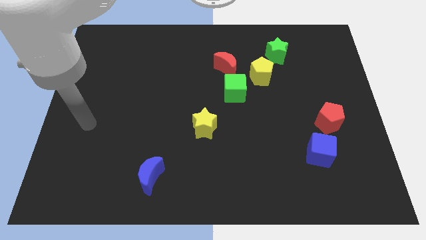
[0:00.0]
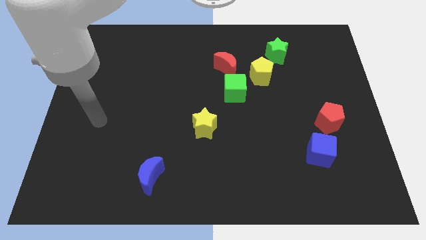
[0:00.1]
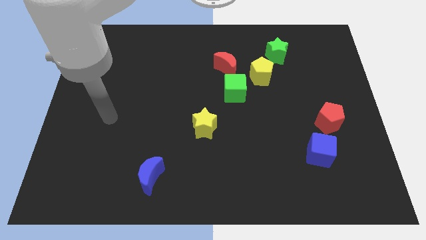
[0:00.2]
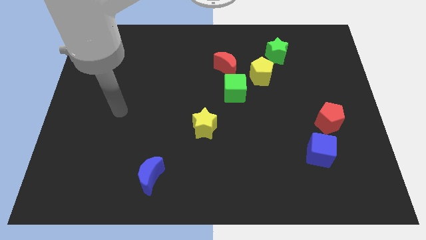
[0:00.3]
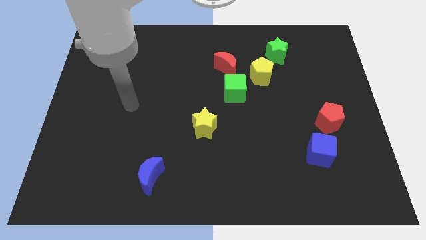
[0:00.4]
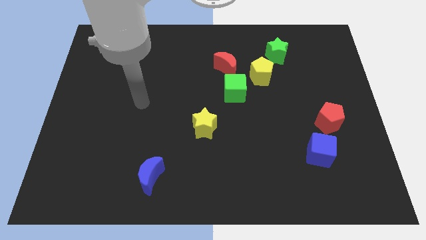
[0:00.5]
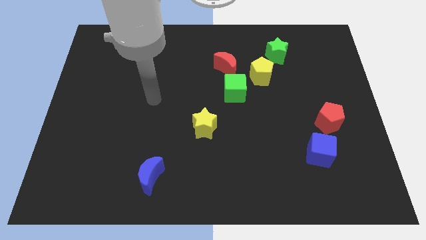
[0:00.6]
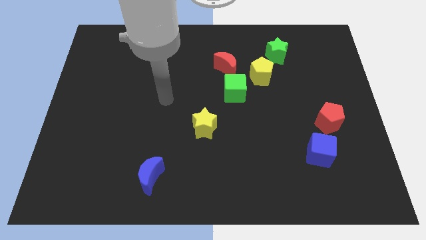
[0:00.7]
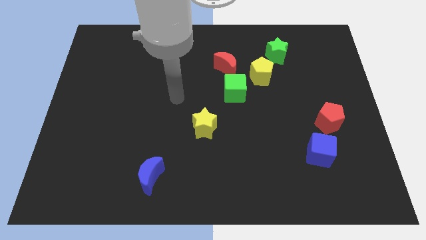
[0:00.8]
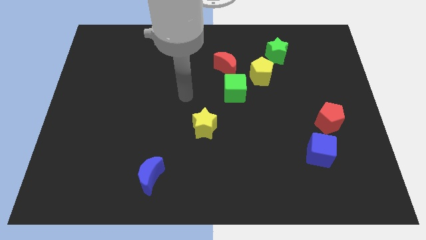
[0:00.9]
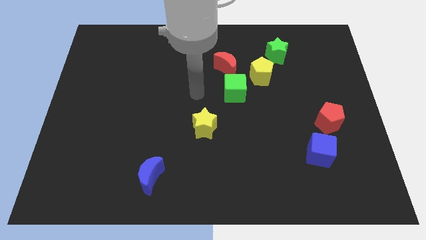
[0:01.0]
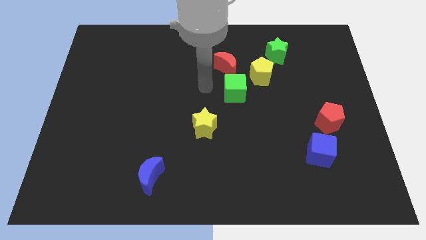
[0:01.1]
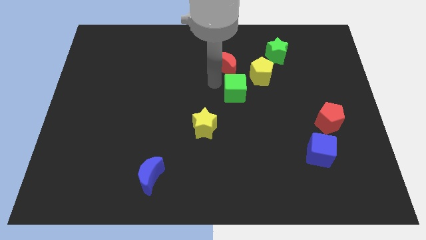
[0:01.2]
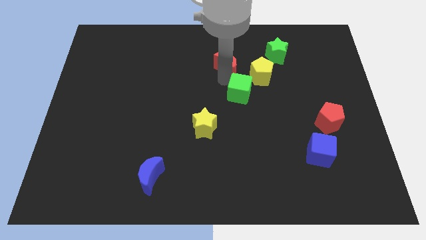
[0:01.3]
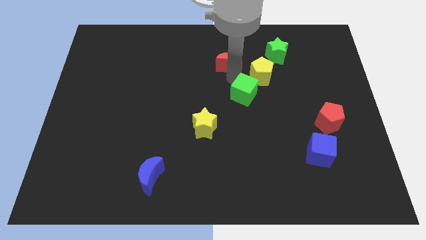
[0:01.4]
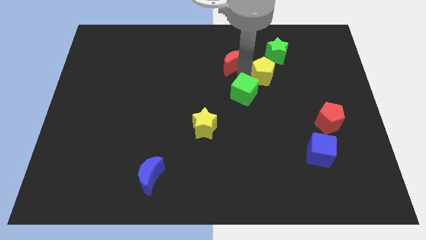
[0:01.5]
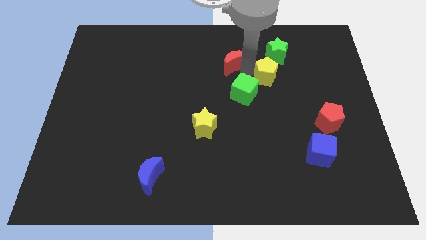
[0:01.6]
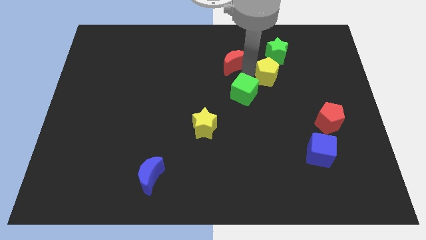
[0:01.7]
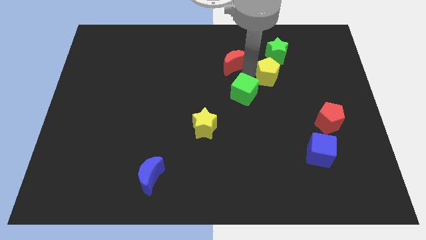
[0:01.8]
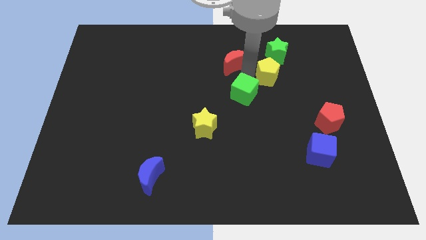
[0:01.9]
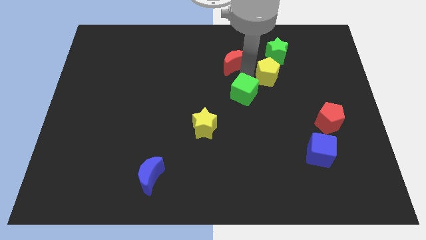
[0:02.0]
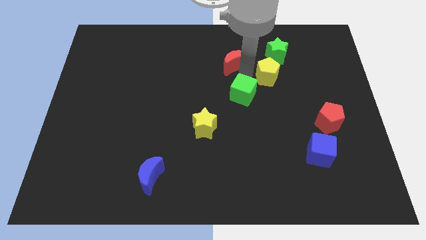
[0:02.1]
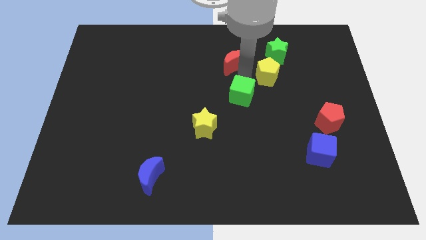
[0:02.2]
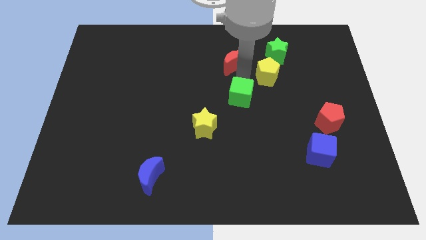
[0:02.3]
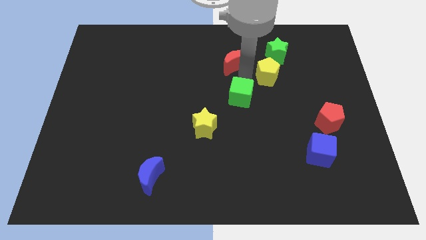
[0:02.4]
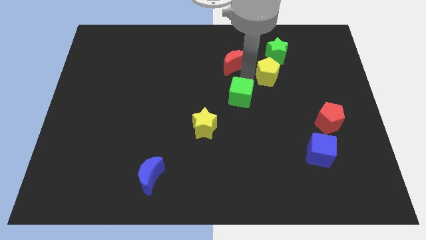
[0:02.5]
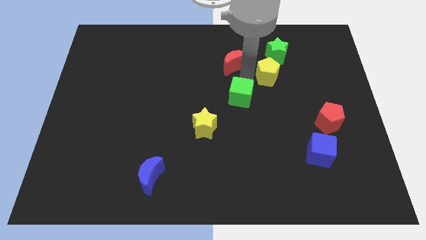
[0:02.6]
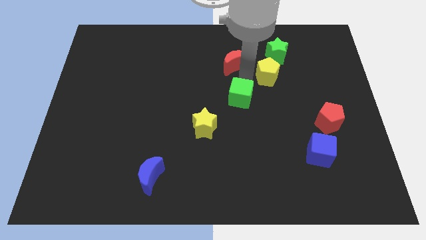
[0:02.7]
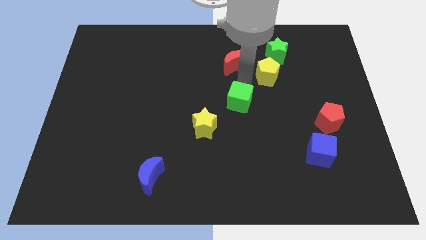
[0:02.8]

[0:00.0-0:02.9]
separate the green cube from the red moon and yellow pentagon

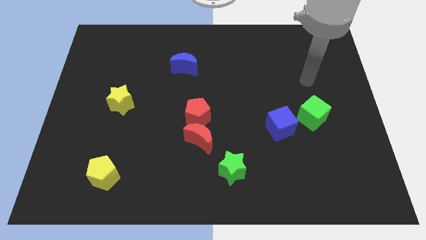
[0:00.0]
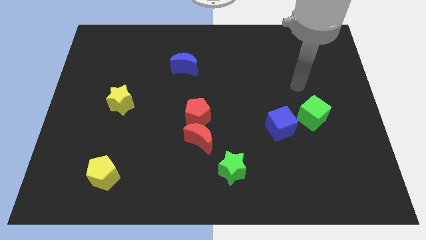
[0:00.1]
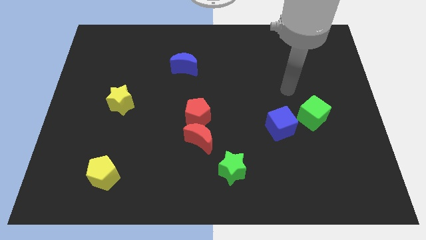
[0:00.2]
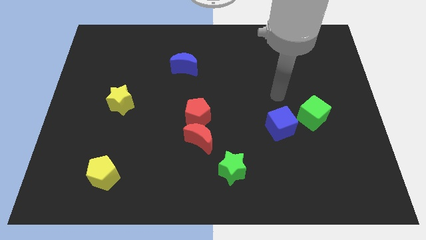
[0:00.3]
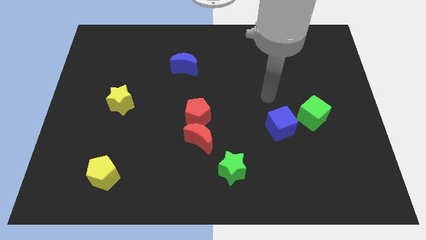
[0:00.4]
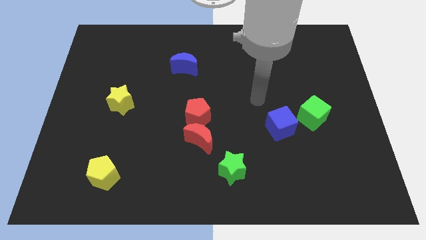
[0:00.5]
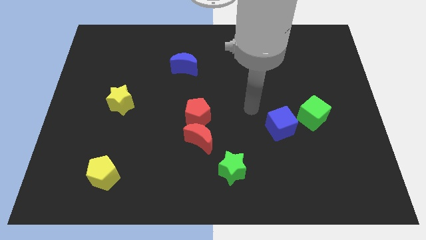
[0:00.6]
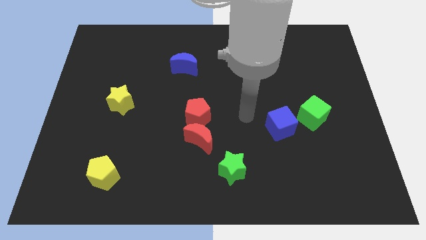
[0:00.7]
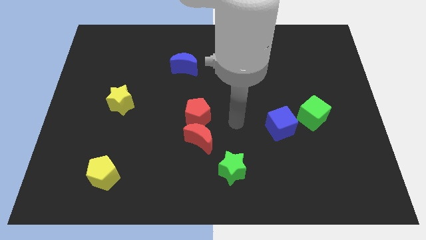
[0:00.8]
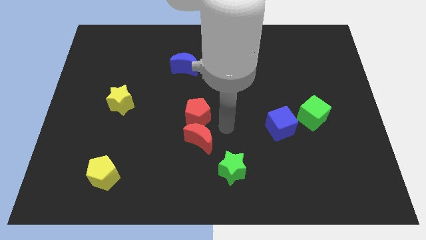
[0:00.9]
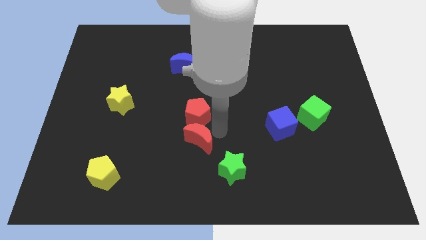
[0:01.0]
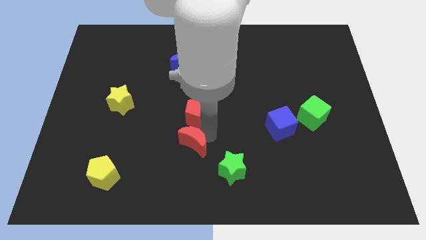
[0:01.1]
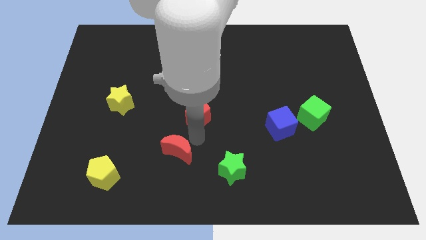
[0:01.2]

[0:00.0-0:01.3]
separate the red pentagon from the red moon

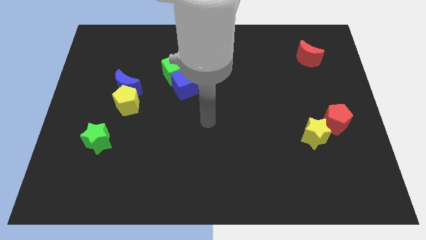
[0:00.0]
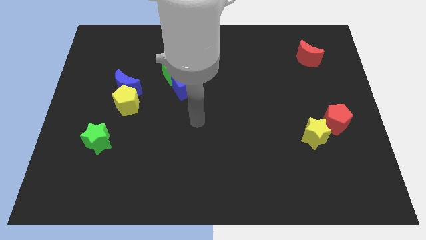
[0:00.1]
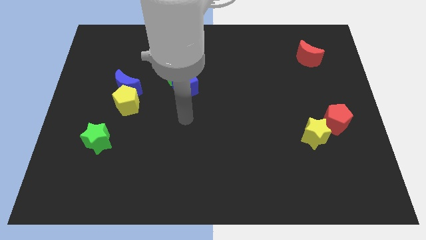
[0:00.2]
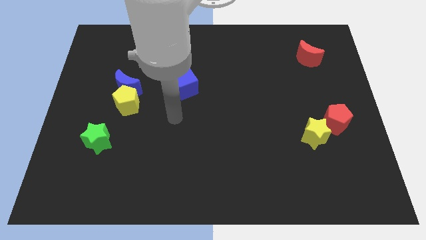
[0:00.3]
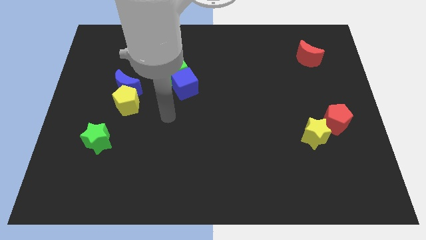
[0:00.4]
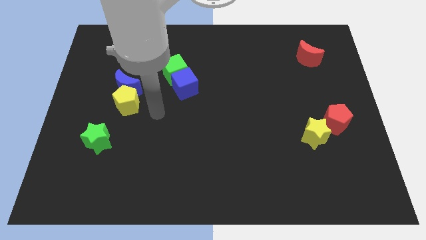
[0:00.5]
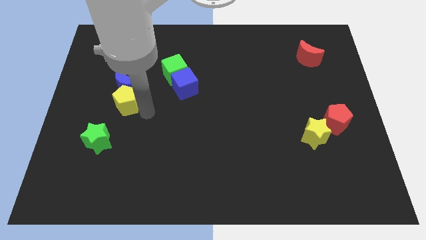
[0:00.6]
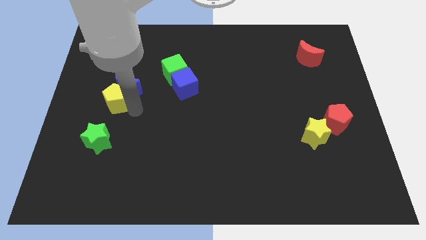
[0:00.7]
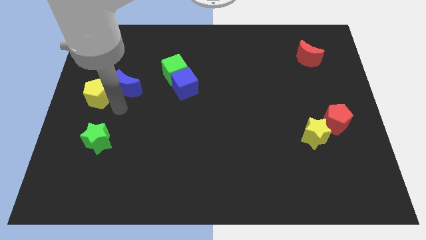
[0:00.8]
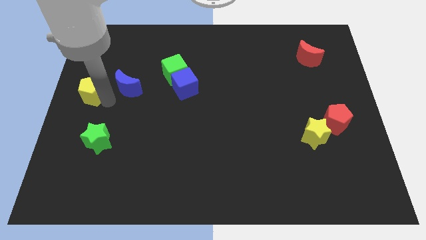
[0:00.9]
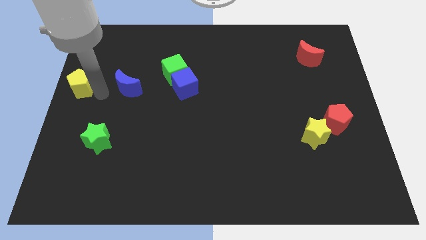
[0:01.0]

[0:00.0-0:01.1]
move the blue moon away from the yellow pentagon

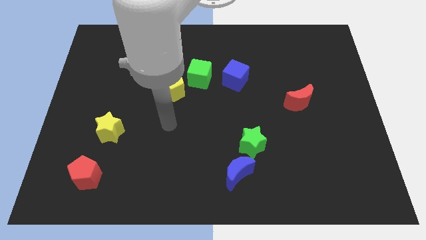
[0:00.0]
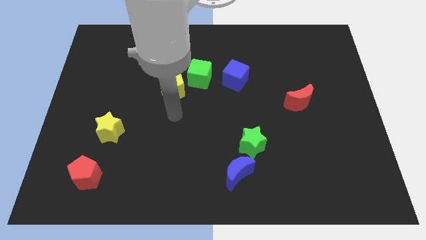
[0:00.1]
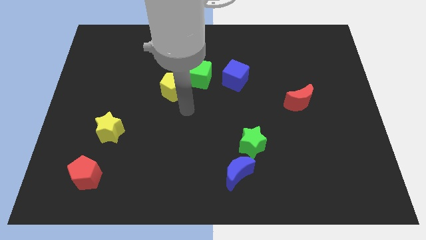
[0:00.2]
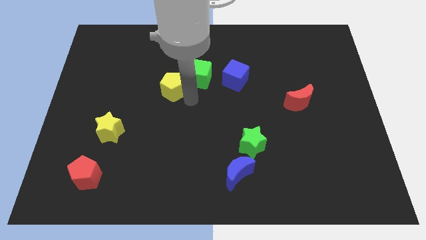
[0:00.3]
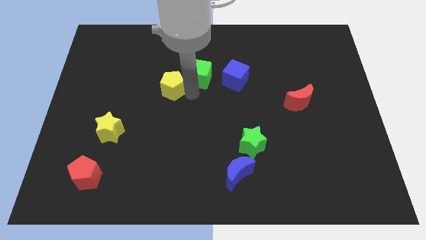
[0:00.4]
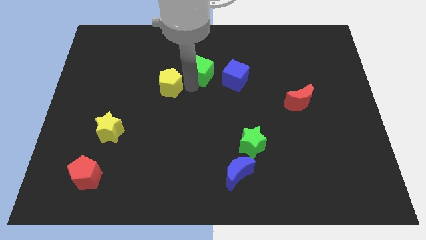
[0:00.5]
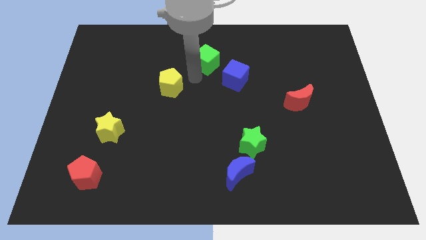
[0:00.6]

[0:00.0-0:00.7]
separate the yellow pentagon from the green cube

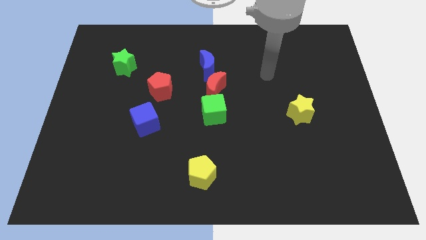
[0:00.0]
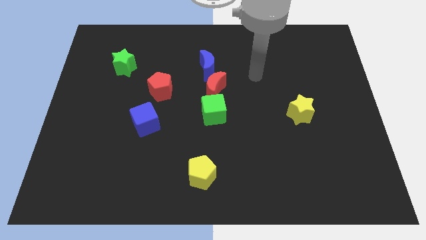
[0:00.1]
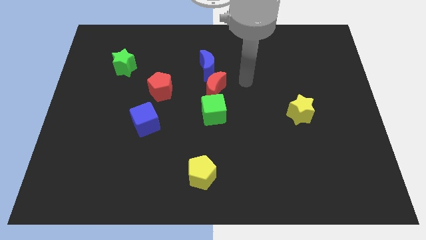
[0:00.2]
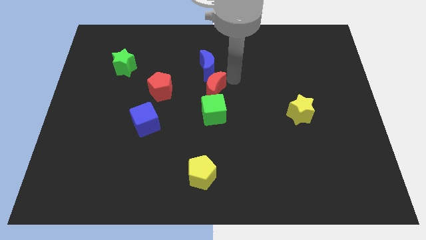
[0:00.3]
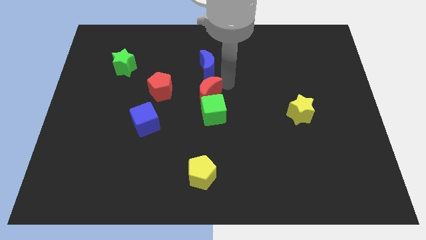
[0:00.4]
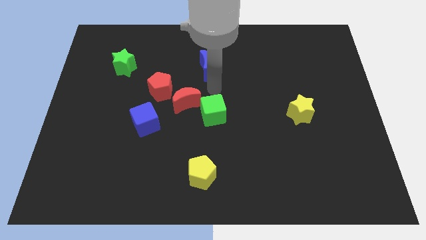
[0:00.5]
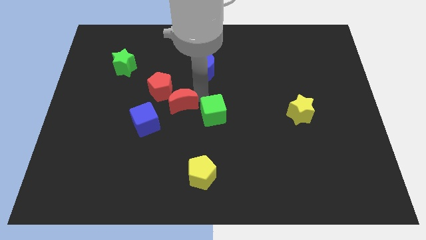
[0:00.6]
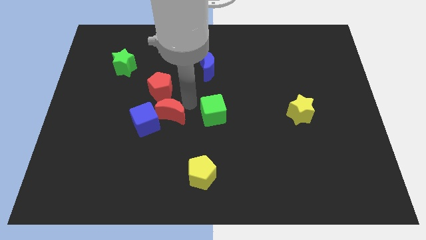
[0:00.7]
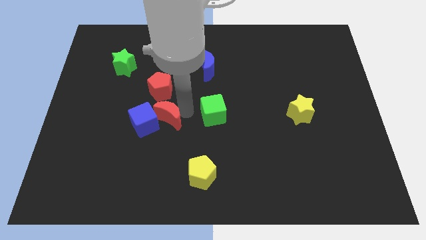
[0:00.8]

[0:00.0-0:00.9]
move the green cube away from the red moon

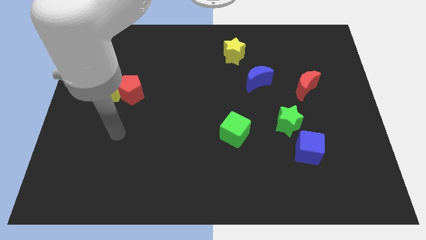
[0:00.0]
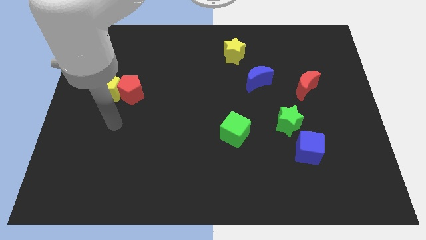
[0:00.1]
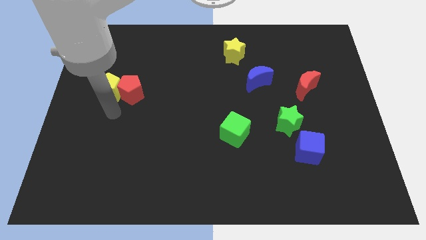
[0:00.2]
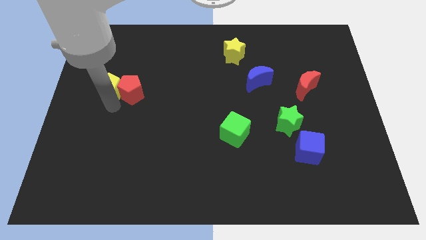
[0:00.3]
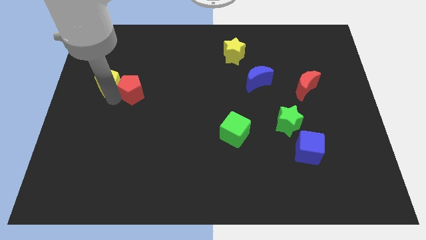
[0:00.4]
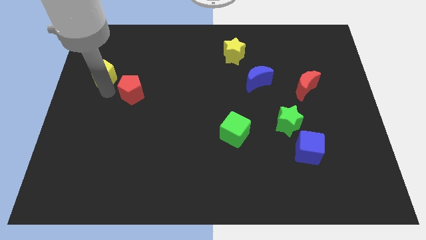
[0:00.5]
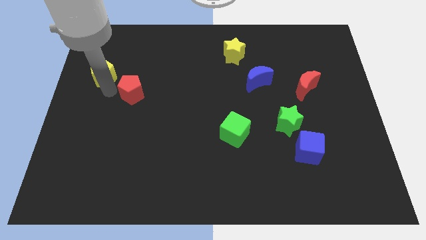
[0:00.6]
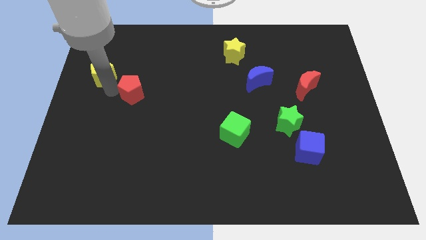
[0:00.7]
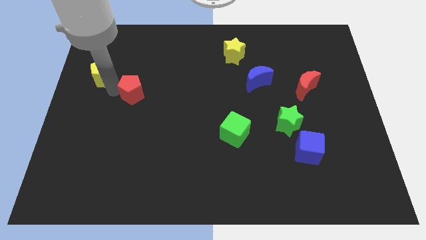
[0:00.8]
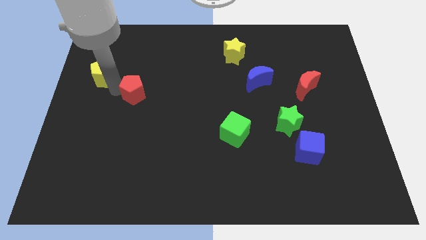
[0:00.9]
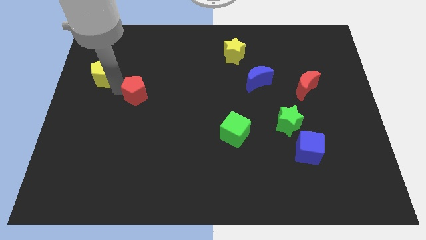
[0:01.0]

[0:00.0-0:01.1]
pull the red pentagon apart from the yellow pentagon

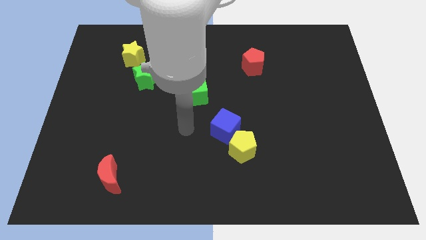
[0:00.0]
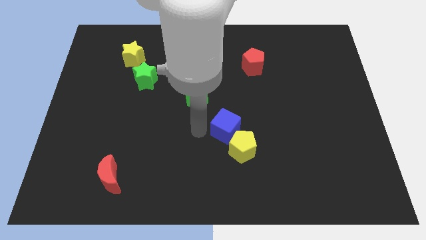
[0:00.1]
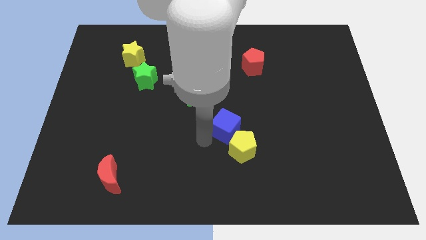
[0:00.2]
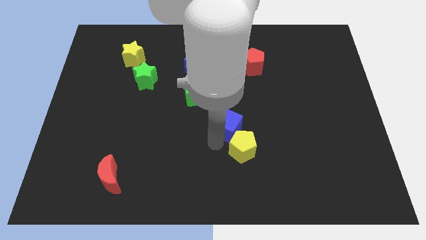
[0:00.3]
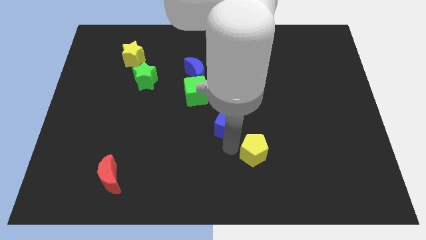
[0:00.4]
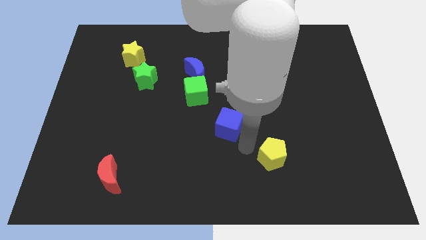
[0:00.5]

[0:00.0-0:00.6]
move the blue cube away from the yellow pentagon

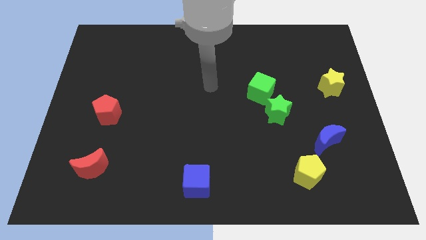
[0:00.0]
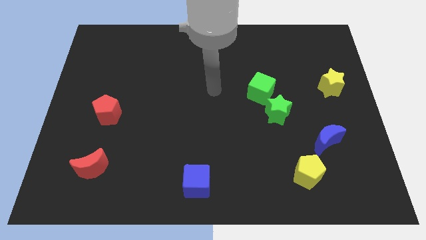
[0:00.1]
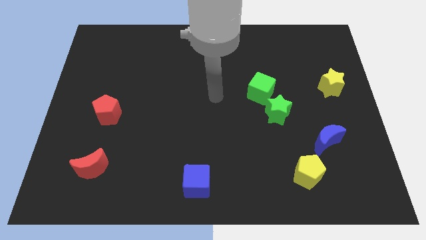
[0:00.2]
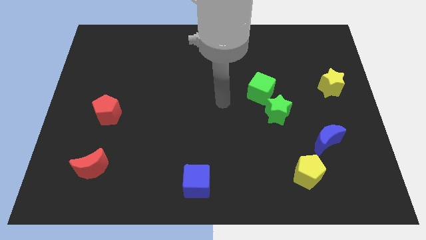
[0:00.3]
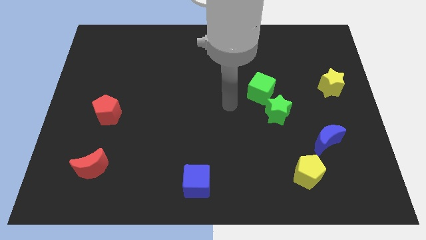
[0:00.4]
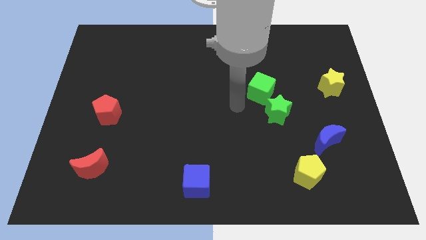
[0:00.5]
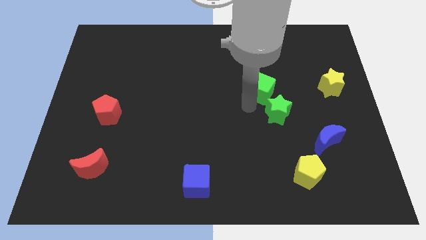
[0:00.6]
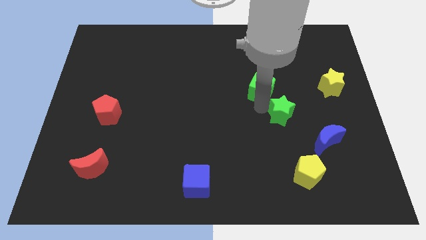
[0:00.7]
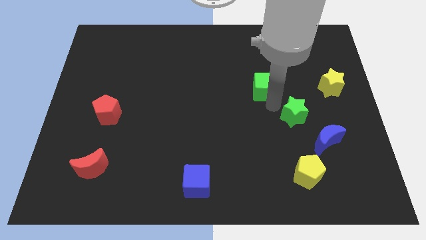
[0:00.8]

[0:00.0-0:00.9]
separate the green cube from the green star
